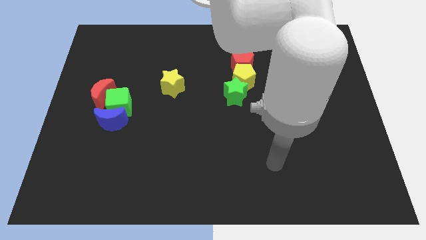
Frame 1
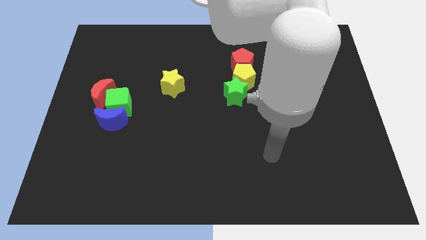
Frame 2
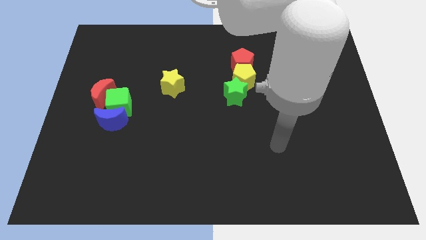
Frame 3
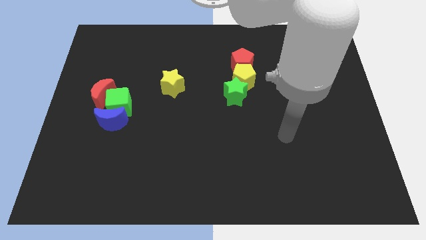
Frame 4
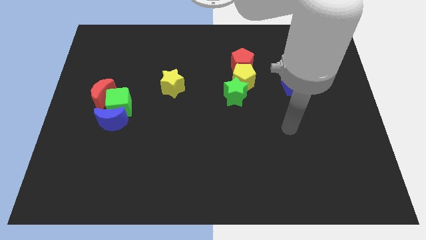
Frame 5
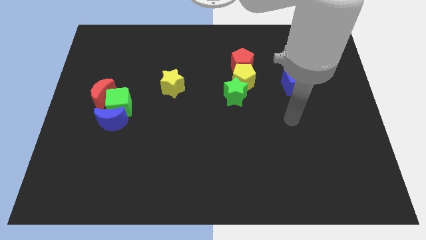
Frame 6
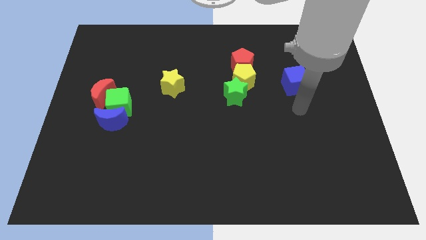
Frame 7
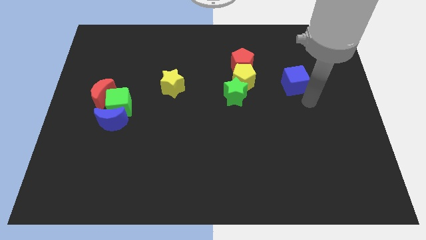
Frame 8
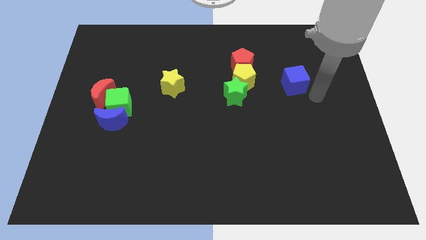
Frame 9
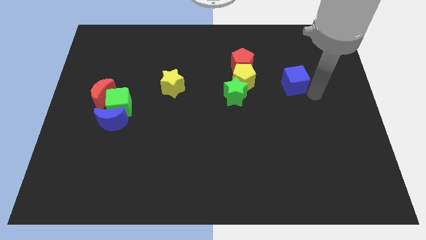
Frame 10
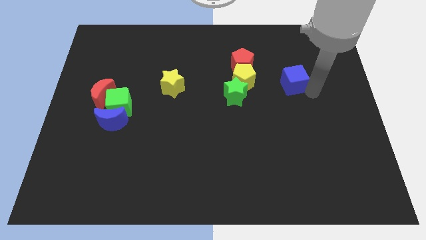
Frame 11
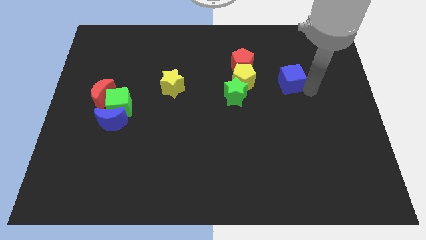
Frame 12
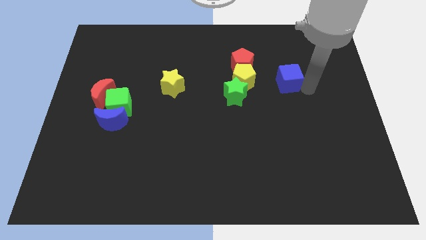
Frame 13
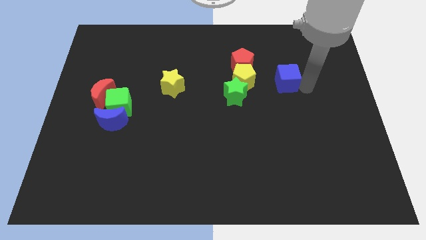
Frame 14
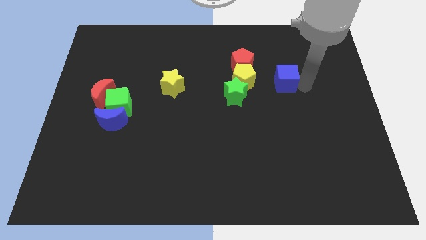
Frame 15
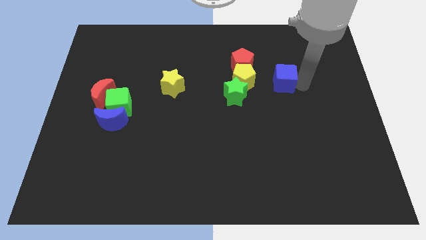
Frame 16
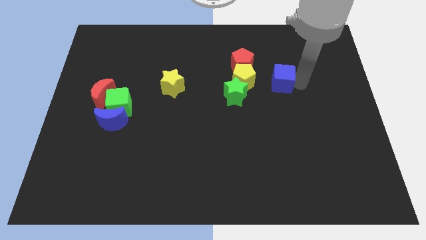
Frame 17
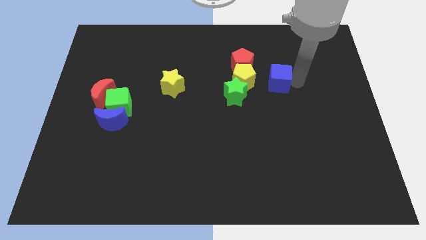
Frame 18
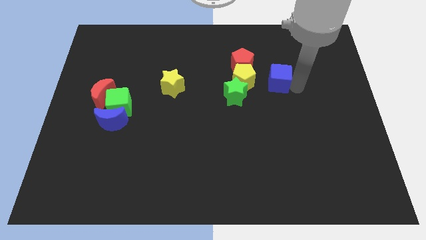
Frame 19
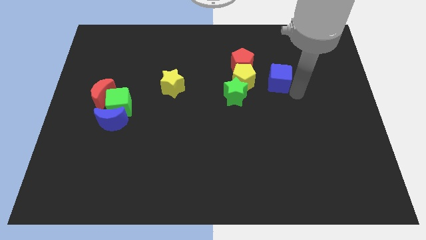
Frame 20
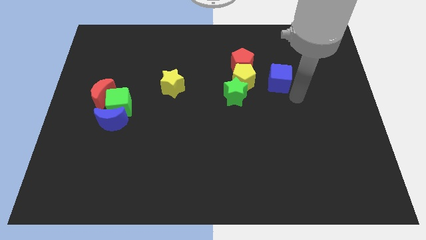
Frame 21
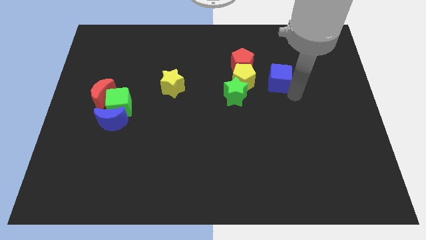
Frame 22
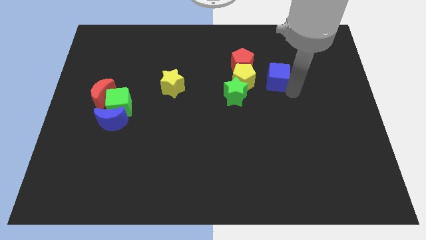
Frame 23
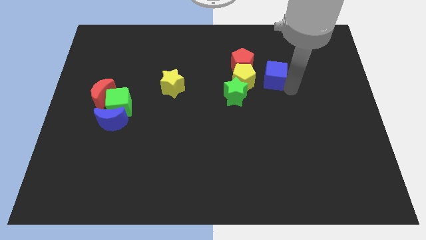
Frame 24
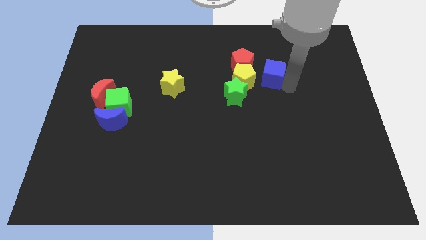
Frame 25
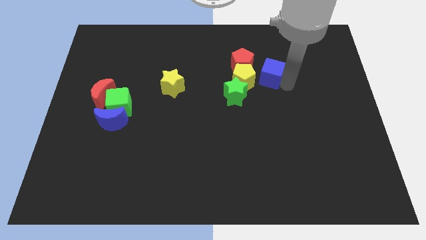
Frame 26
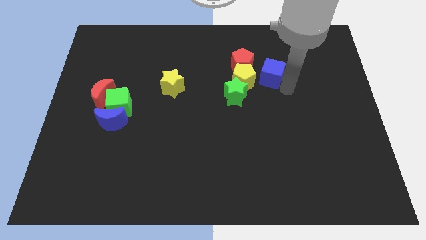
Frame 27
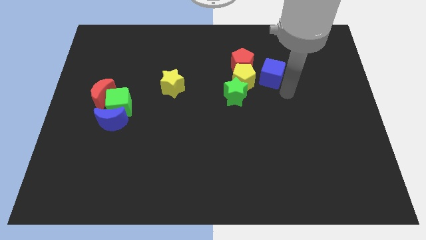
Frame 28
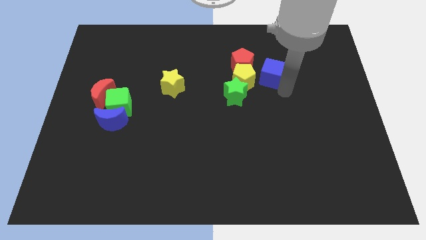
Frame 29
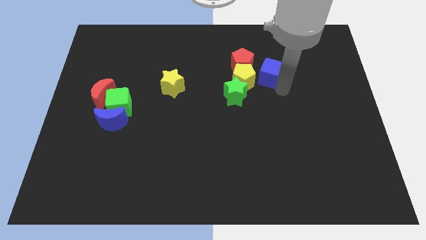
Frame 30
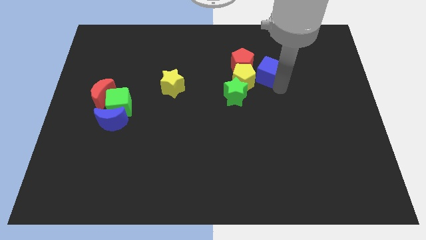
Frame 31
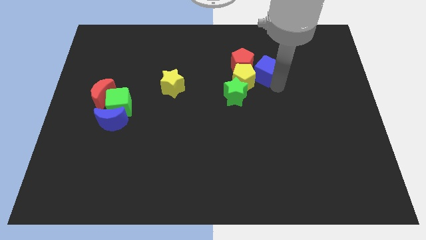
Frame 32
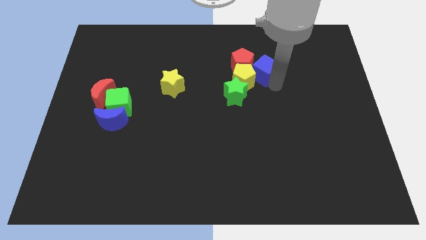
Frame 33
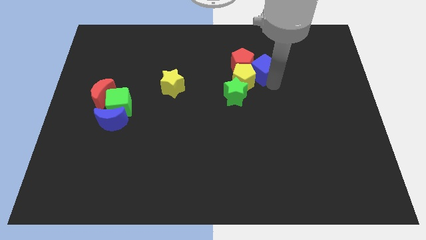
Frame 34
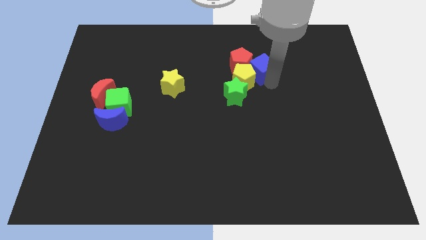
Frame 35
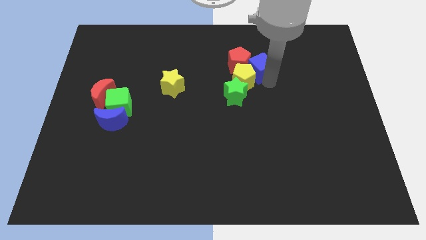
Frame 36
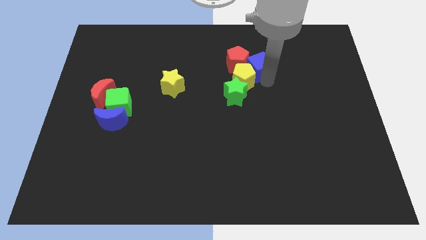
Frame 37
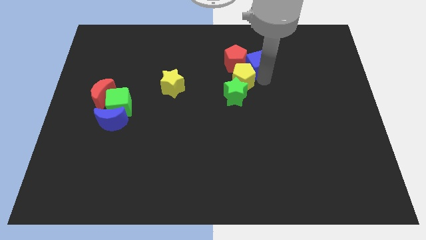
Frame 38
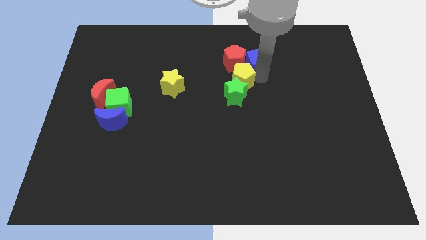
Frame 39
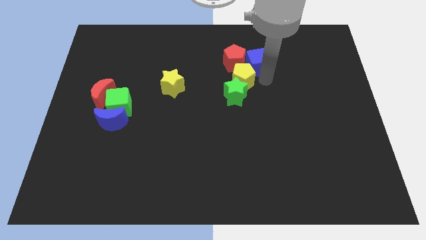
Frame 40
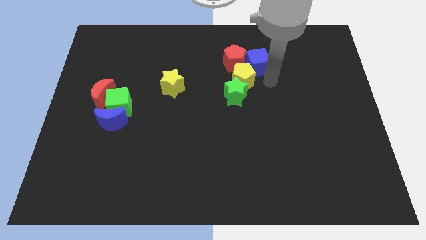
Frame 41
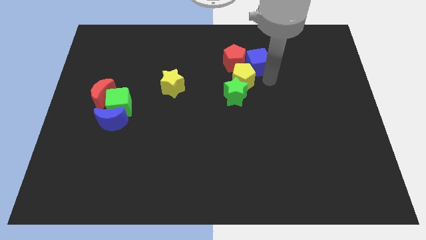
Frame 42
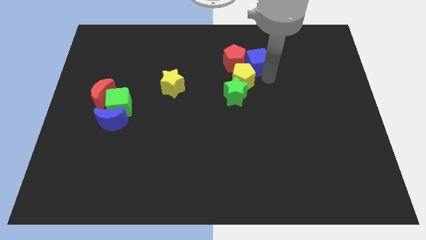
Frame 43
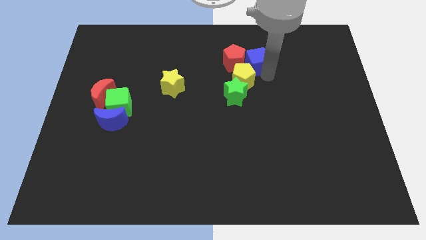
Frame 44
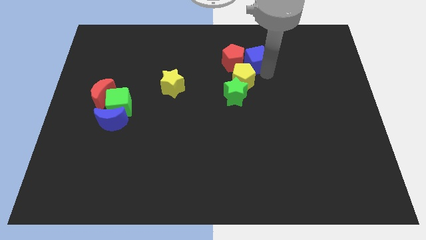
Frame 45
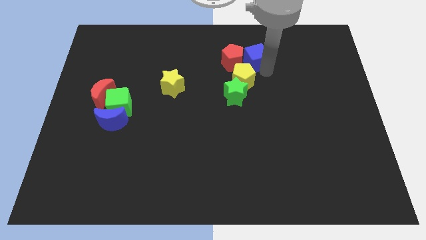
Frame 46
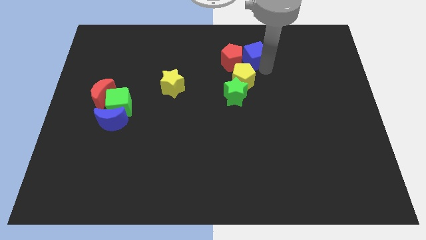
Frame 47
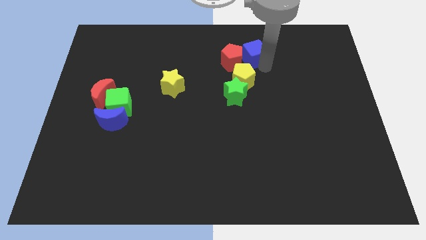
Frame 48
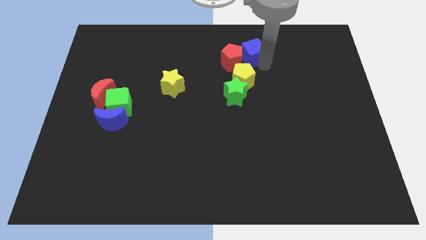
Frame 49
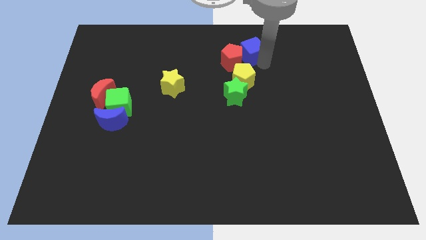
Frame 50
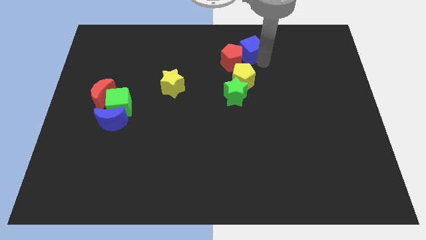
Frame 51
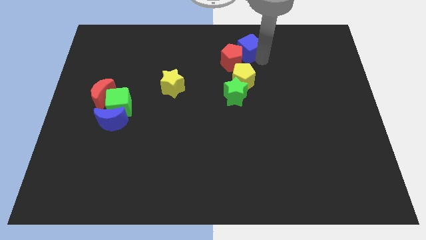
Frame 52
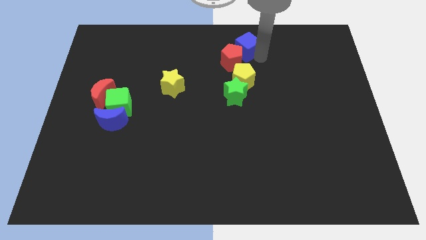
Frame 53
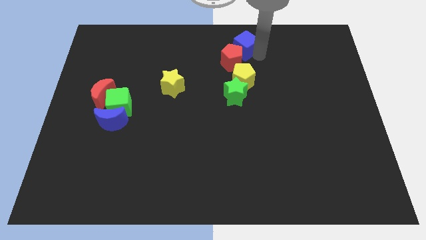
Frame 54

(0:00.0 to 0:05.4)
slide the blue cube to the top
